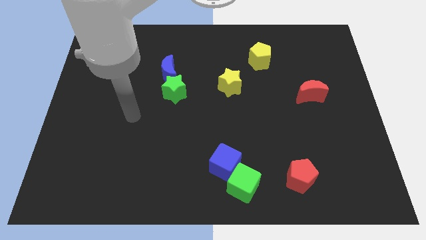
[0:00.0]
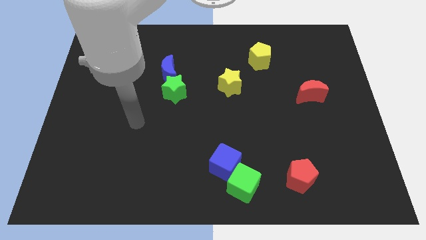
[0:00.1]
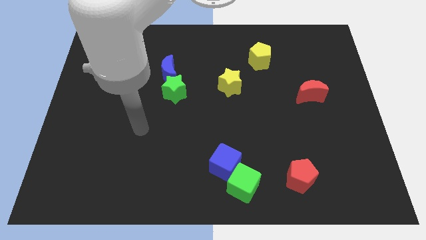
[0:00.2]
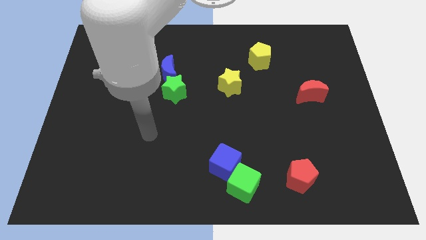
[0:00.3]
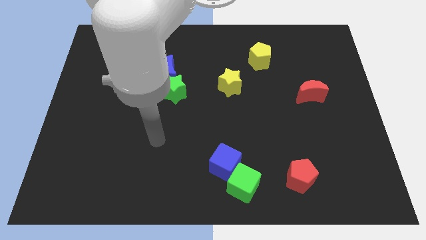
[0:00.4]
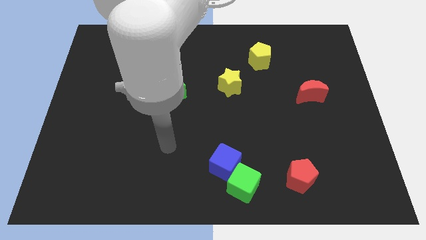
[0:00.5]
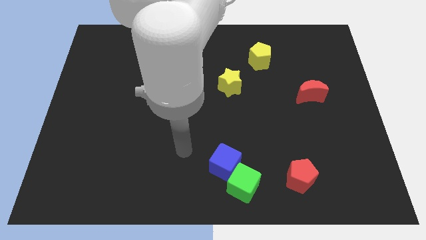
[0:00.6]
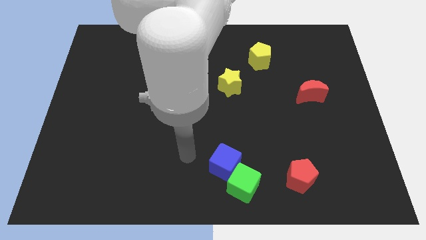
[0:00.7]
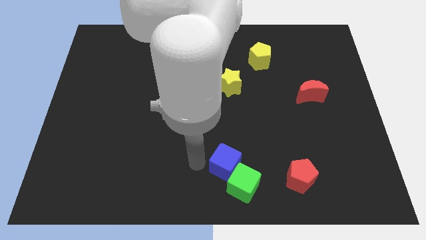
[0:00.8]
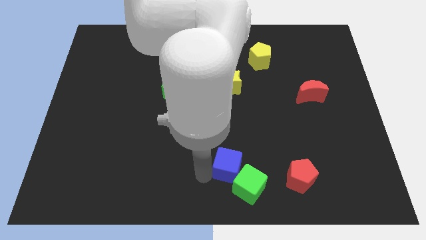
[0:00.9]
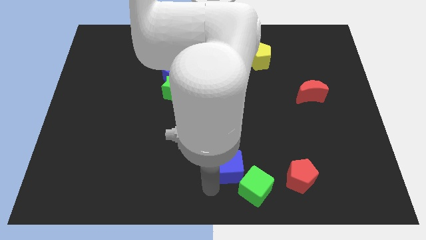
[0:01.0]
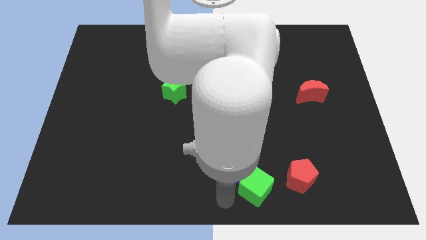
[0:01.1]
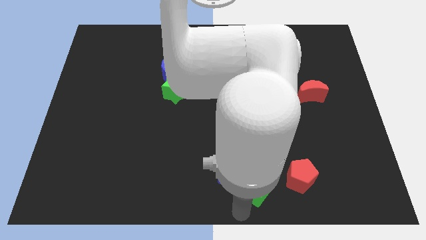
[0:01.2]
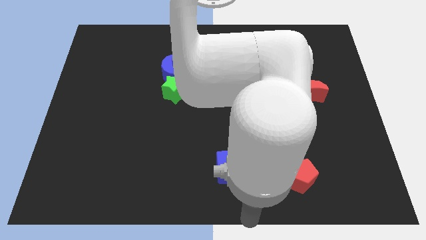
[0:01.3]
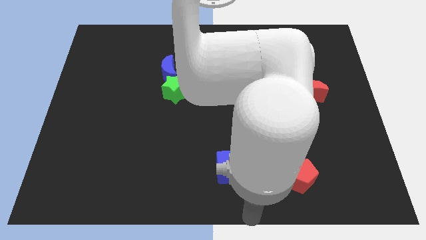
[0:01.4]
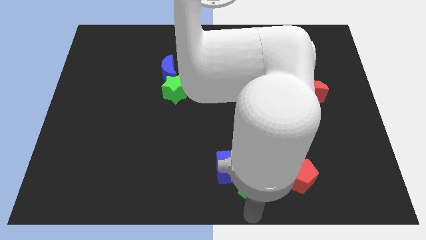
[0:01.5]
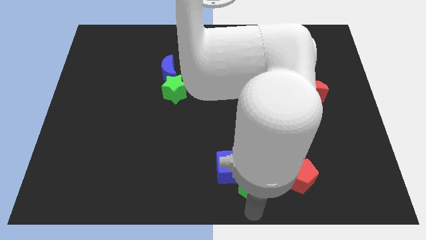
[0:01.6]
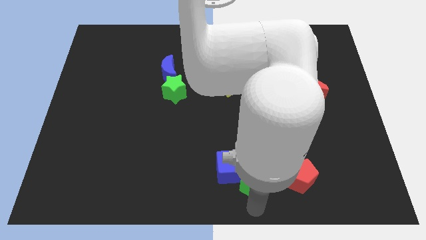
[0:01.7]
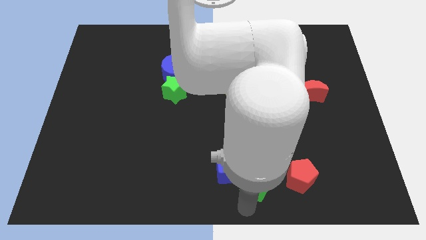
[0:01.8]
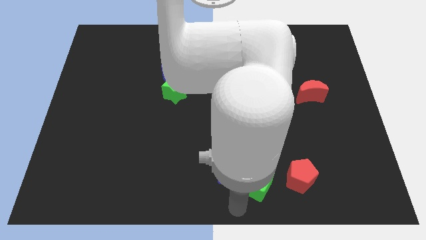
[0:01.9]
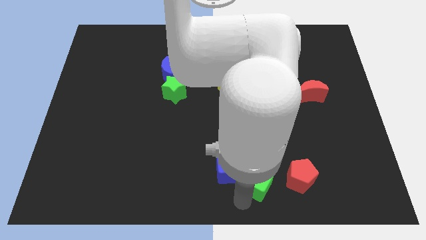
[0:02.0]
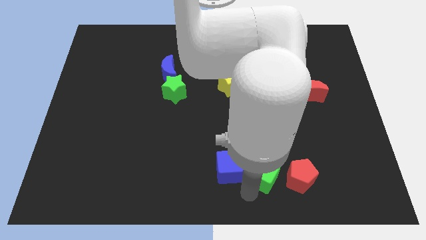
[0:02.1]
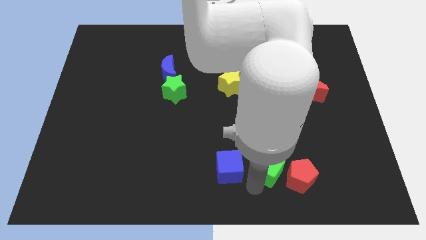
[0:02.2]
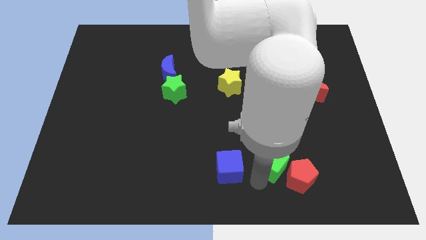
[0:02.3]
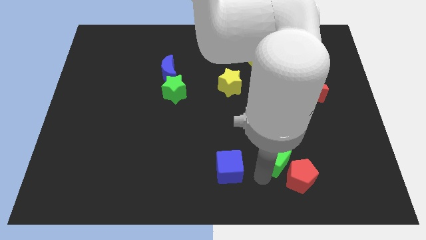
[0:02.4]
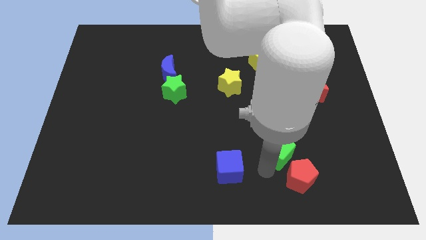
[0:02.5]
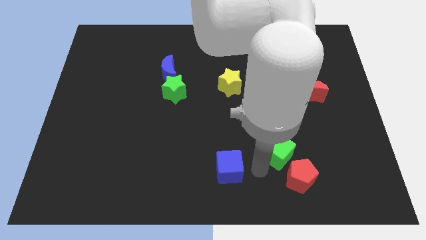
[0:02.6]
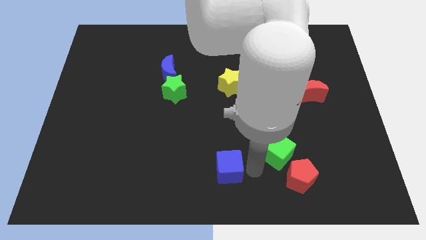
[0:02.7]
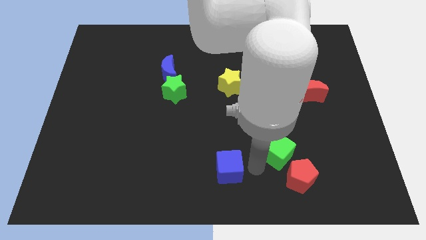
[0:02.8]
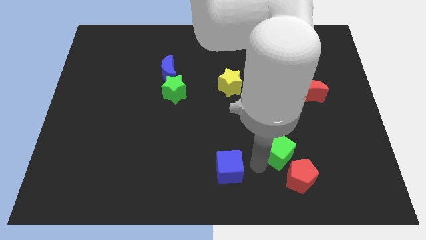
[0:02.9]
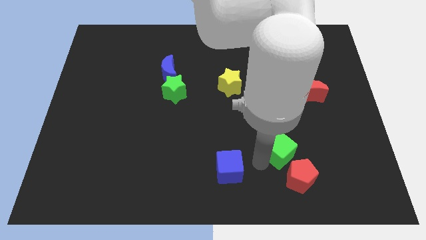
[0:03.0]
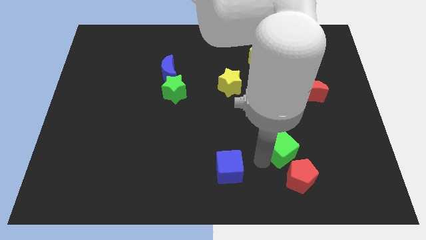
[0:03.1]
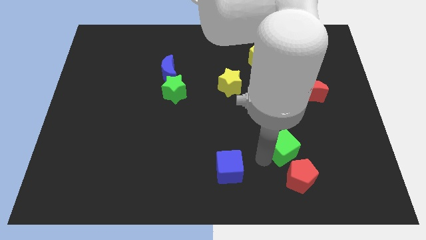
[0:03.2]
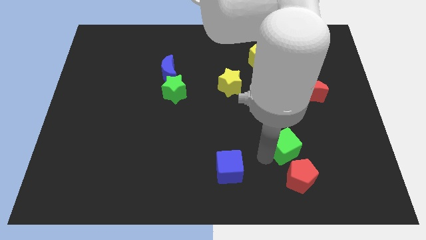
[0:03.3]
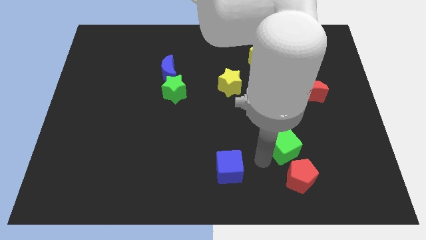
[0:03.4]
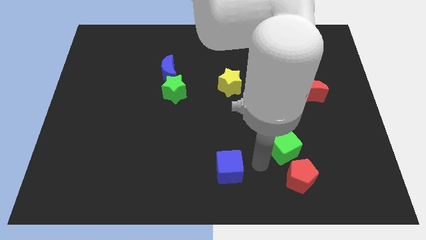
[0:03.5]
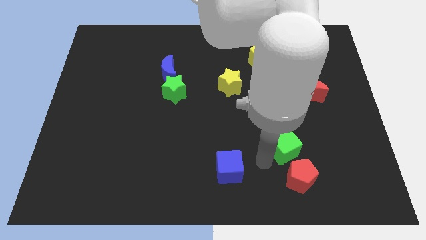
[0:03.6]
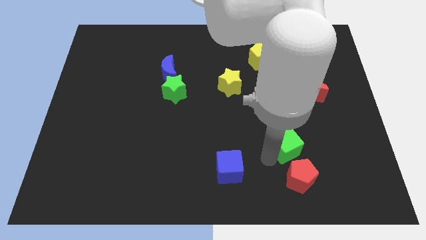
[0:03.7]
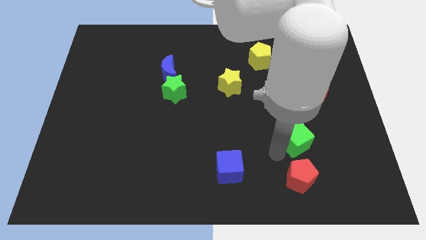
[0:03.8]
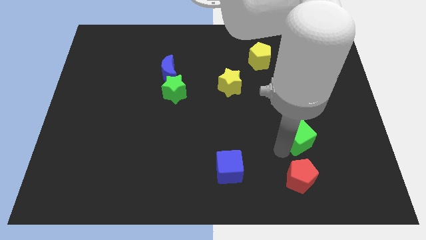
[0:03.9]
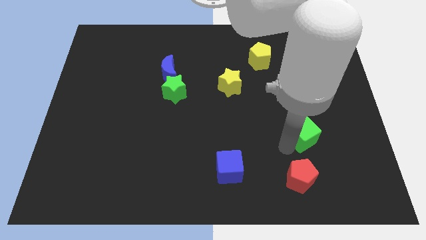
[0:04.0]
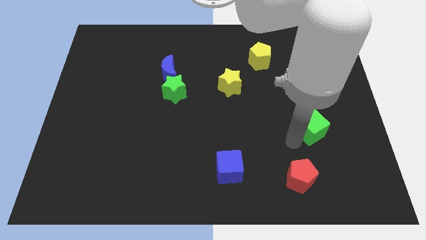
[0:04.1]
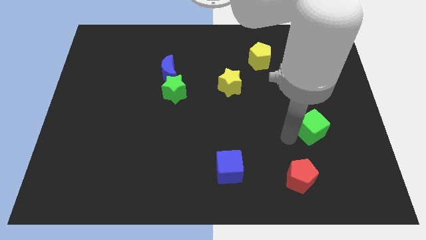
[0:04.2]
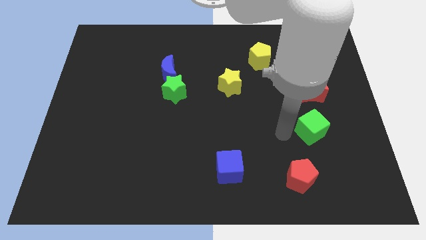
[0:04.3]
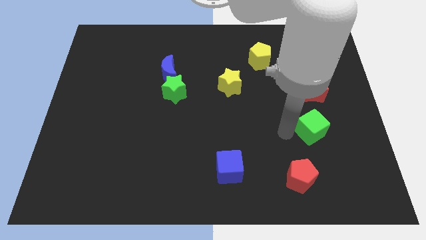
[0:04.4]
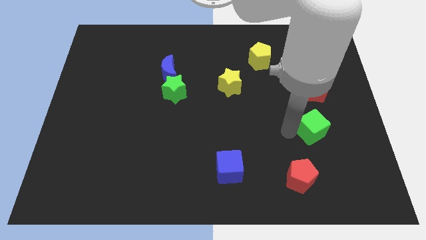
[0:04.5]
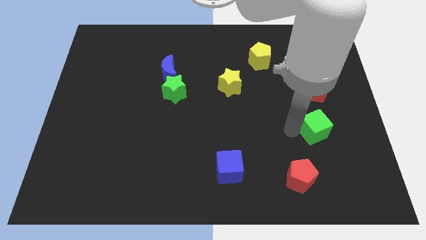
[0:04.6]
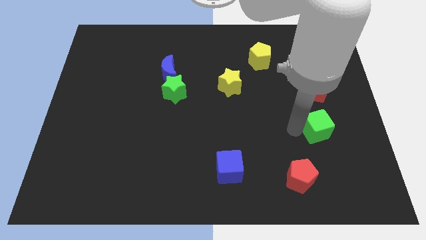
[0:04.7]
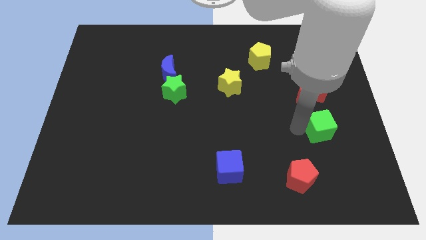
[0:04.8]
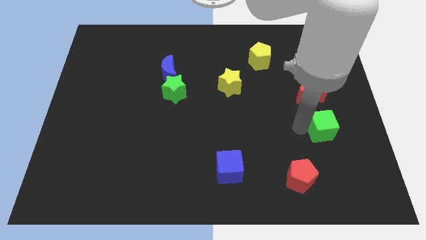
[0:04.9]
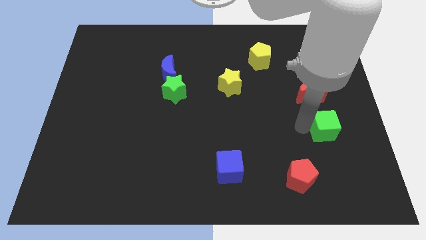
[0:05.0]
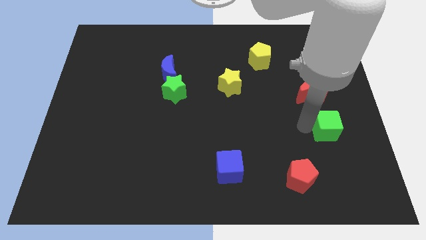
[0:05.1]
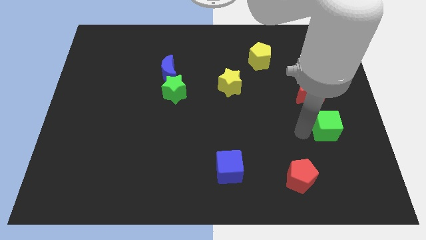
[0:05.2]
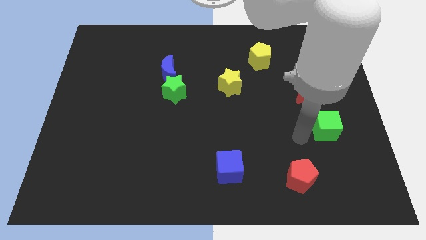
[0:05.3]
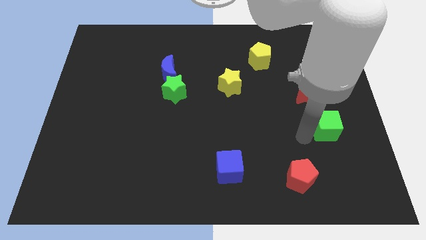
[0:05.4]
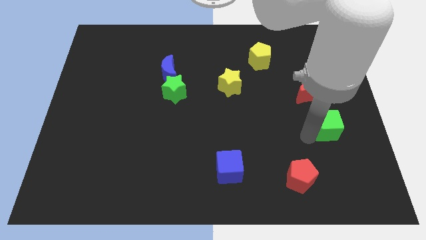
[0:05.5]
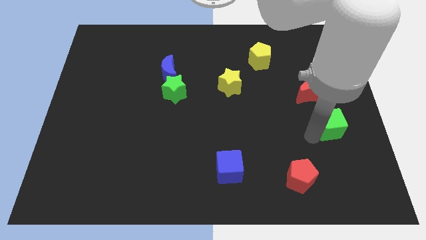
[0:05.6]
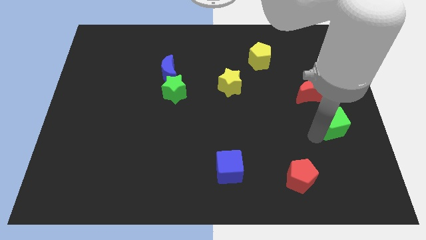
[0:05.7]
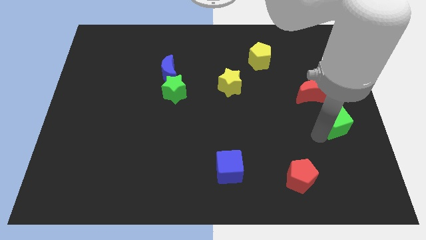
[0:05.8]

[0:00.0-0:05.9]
put the green cube to the right side of the board

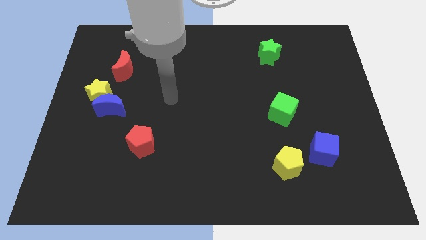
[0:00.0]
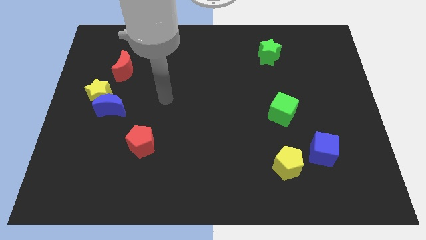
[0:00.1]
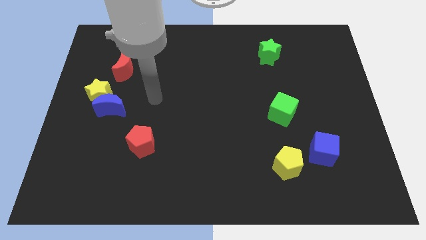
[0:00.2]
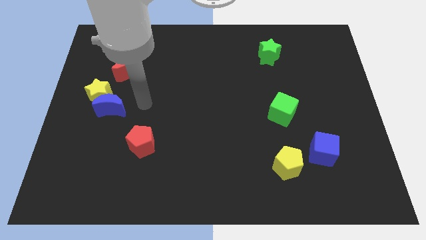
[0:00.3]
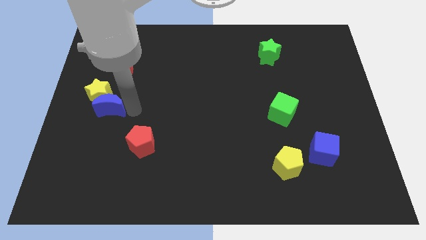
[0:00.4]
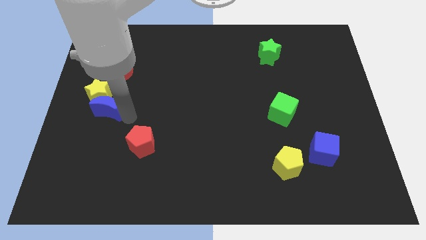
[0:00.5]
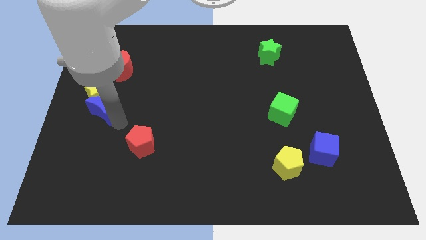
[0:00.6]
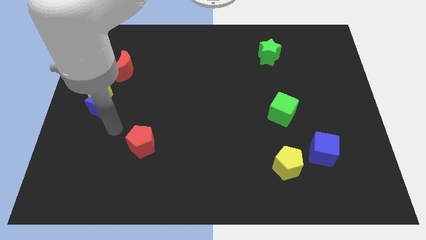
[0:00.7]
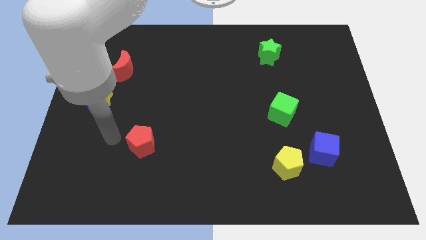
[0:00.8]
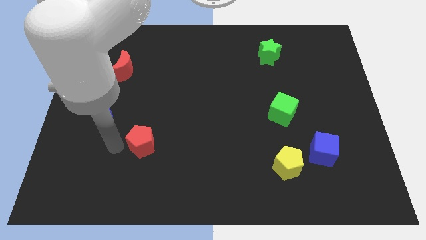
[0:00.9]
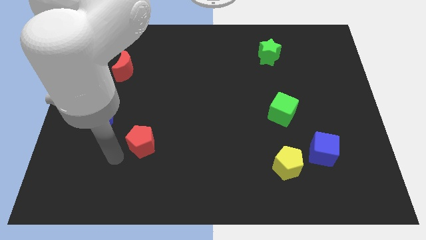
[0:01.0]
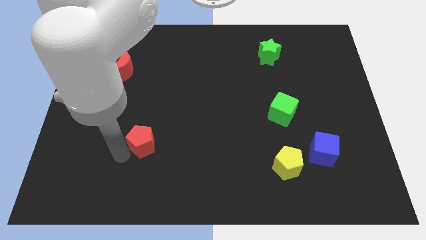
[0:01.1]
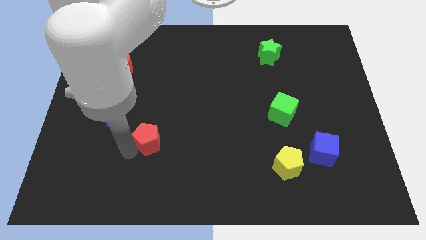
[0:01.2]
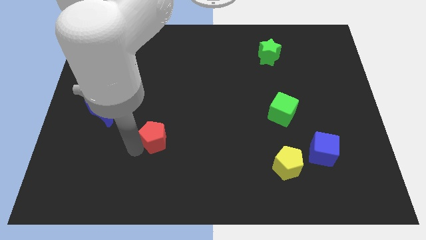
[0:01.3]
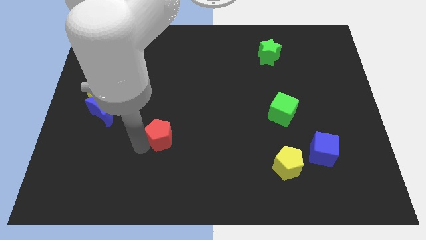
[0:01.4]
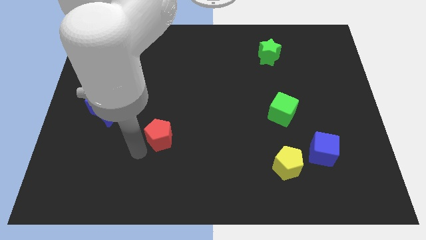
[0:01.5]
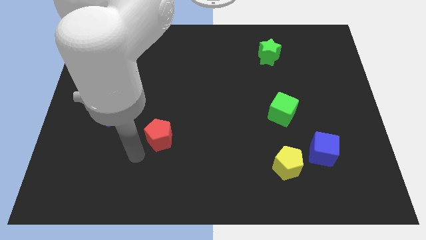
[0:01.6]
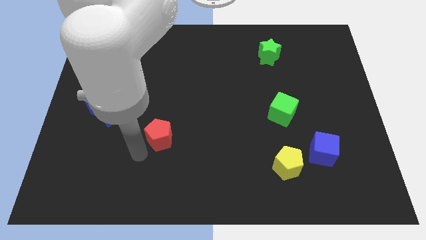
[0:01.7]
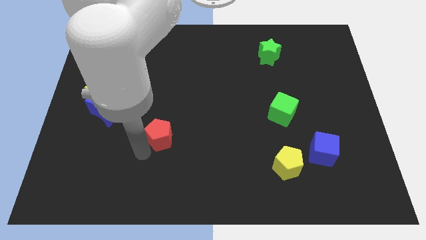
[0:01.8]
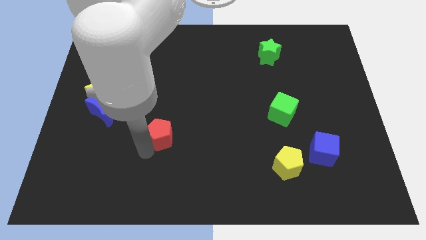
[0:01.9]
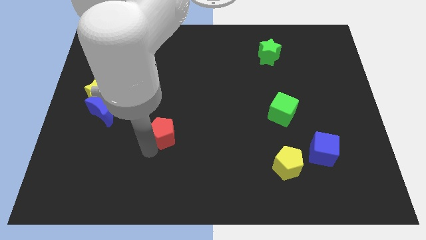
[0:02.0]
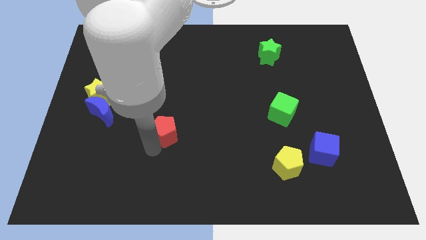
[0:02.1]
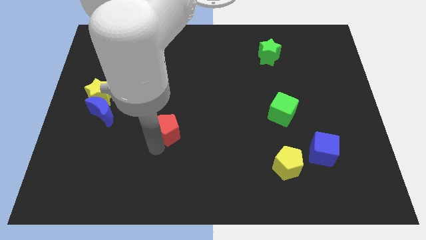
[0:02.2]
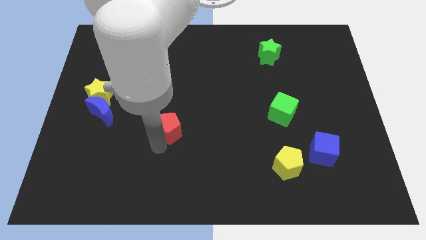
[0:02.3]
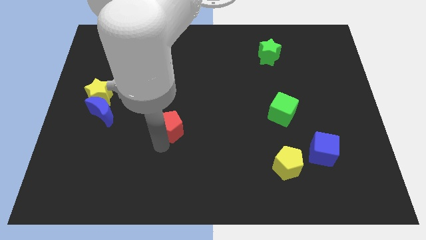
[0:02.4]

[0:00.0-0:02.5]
slide the red pentagon to the middle
